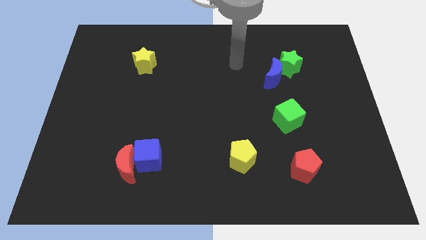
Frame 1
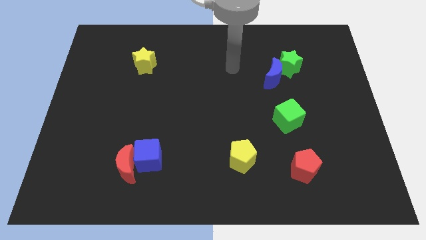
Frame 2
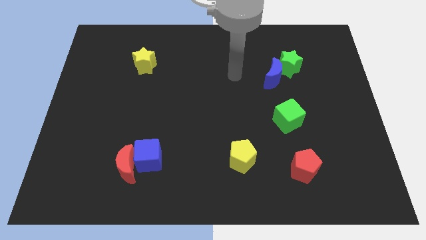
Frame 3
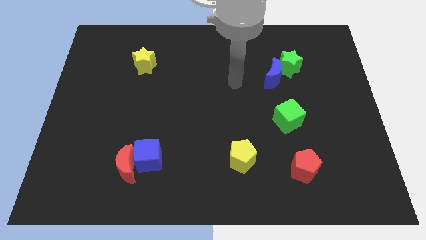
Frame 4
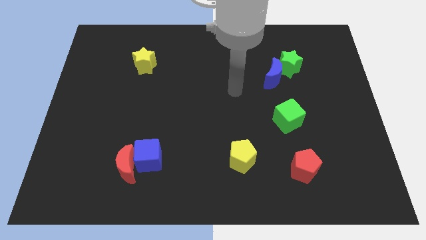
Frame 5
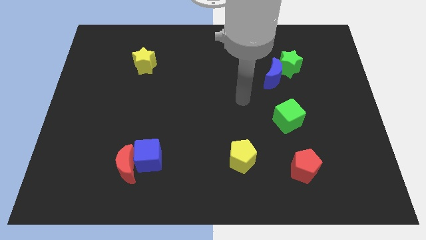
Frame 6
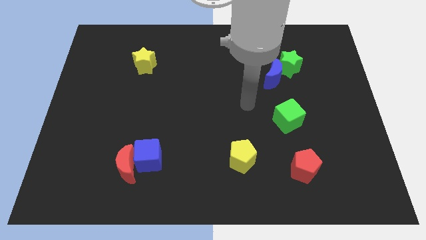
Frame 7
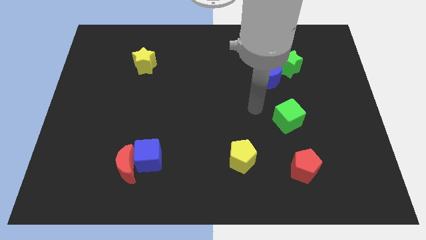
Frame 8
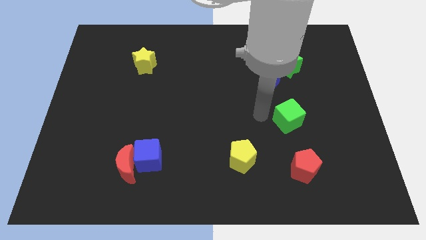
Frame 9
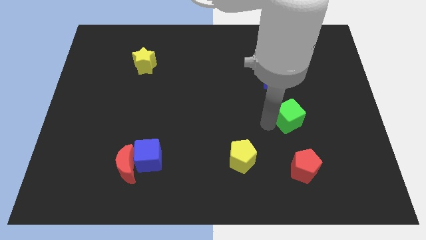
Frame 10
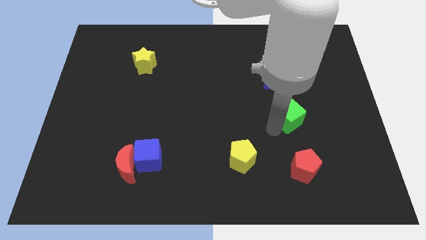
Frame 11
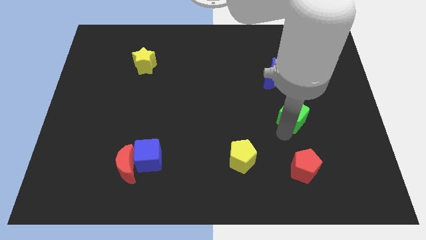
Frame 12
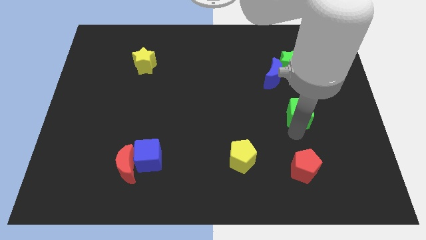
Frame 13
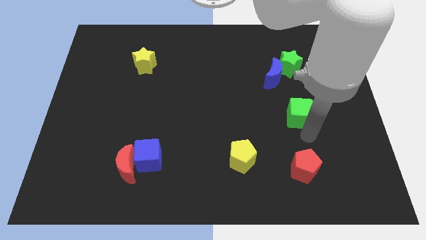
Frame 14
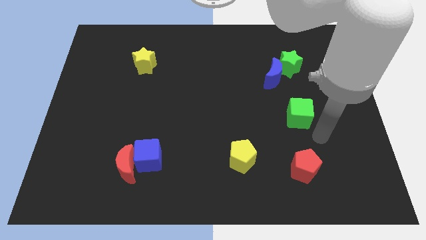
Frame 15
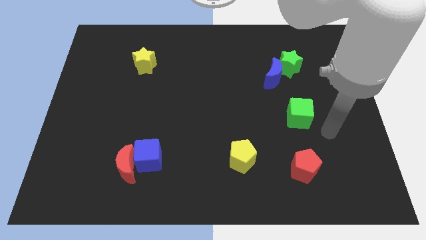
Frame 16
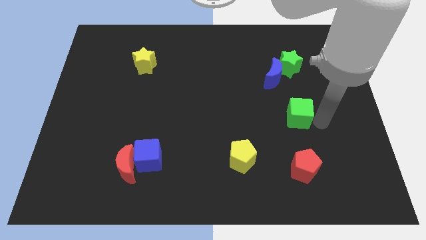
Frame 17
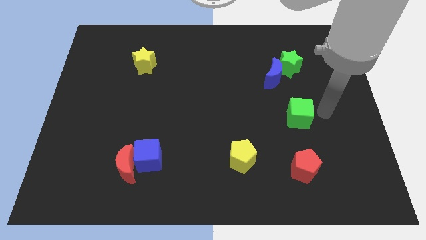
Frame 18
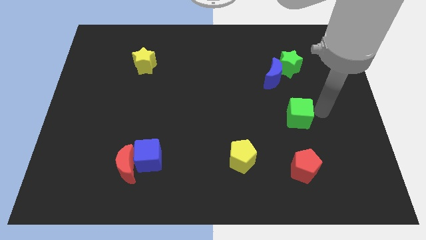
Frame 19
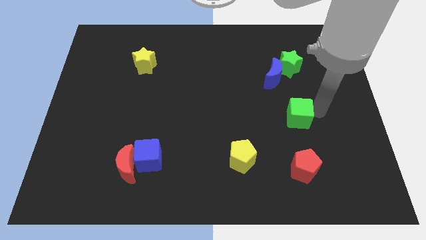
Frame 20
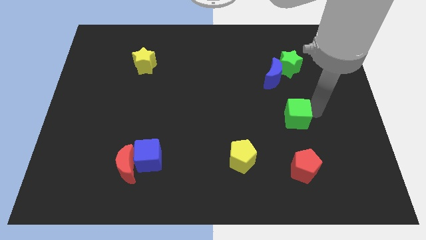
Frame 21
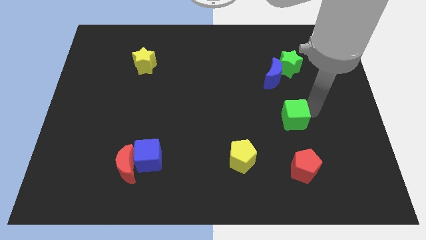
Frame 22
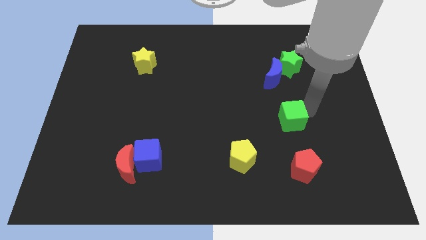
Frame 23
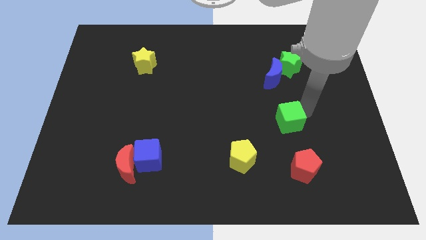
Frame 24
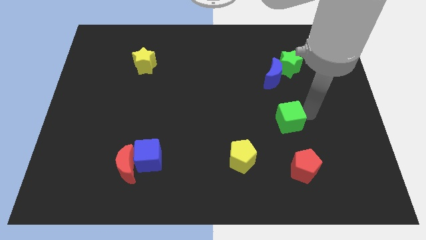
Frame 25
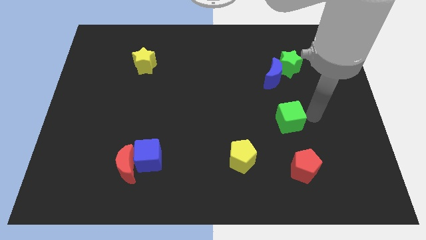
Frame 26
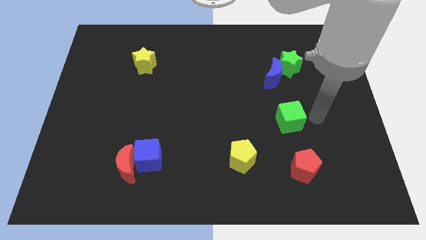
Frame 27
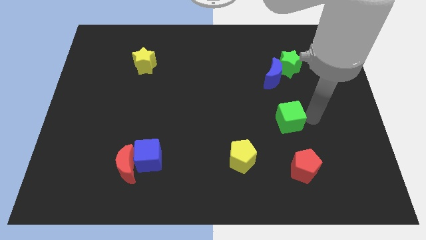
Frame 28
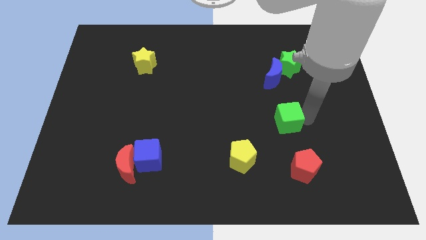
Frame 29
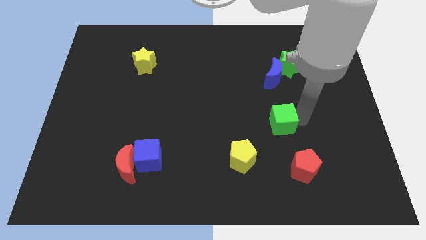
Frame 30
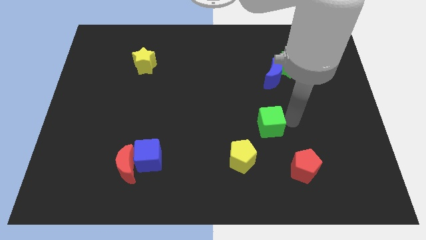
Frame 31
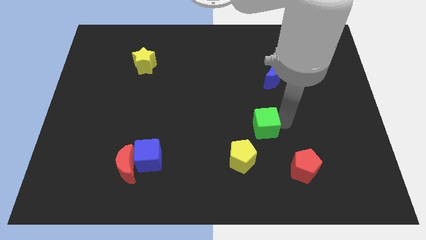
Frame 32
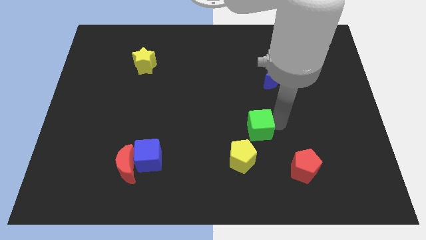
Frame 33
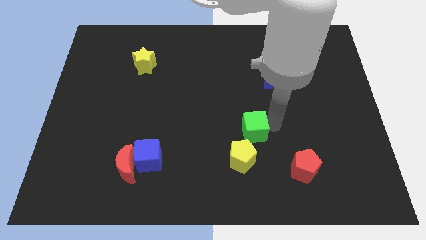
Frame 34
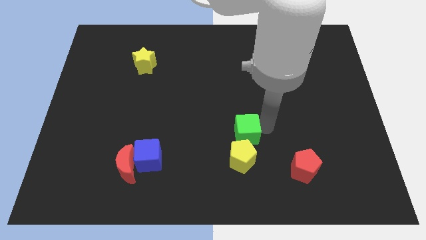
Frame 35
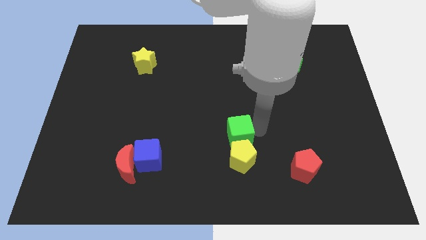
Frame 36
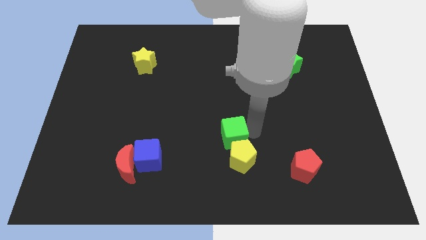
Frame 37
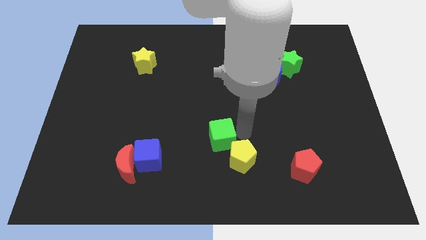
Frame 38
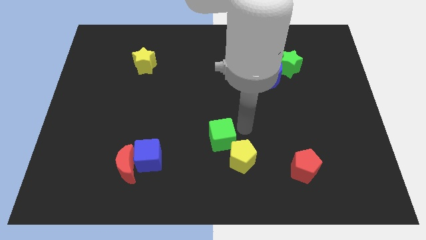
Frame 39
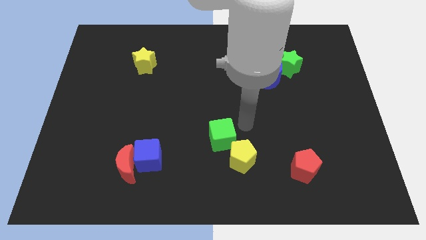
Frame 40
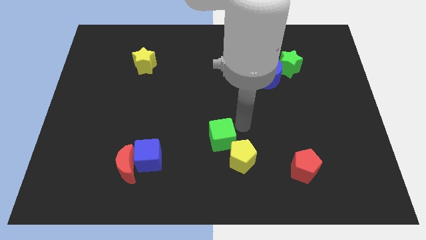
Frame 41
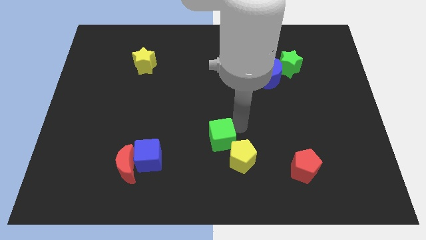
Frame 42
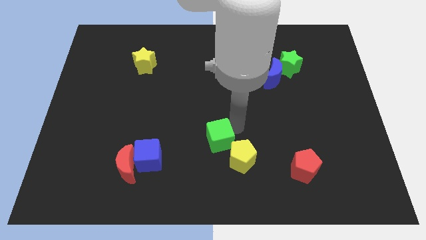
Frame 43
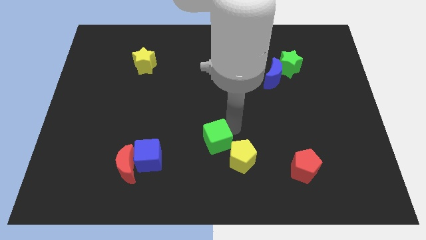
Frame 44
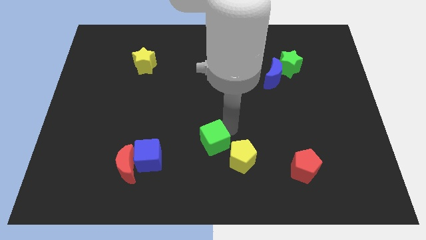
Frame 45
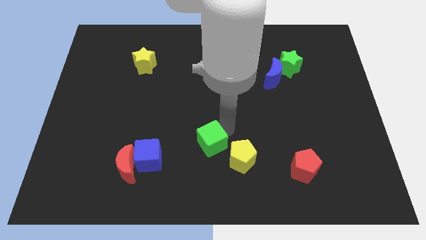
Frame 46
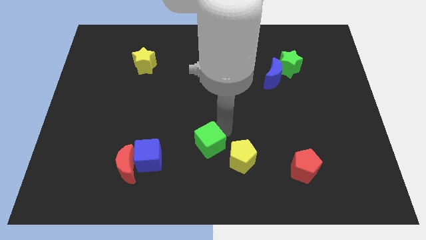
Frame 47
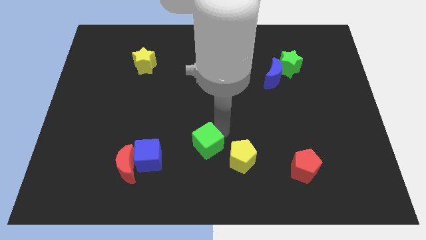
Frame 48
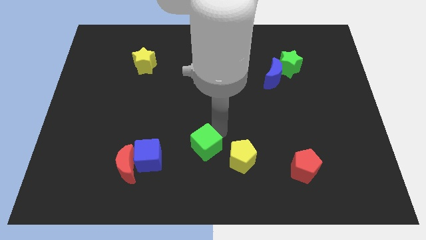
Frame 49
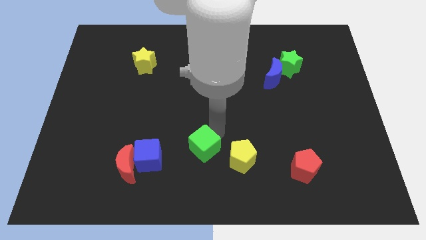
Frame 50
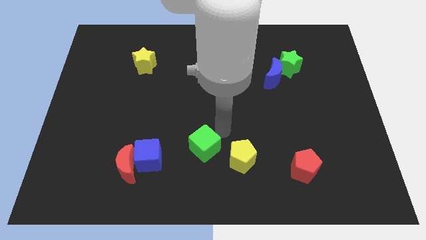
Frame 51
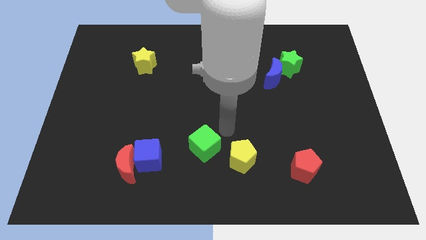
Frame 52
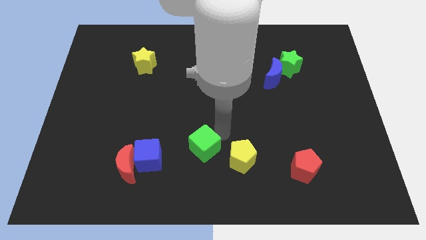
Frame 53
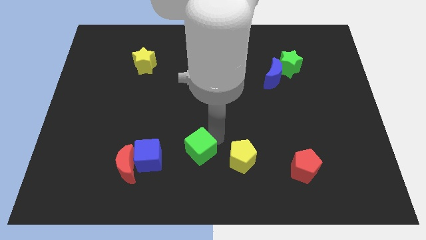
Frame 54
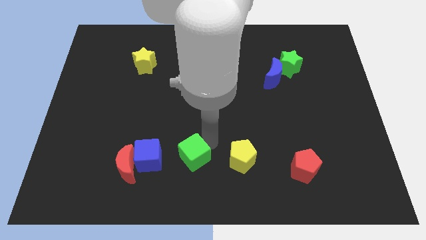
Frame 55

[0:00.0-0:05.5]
move the green cube to the right side of the red moon

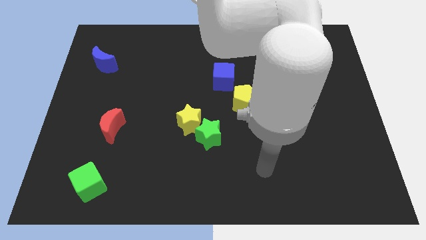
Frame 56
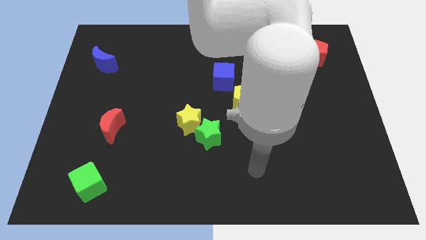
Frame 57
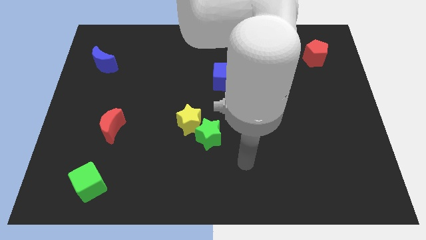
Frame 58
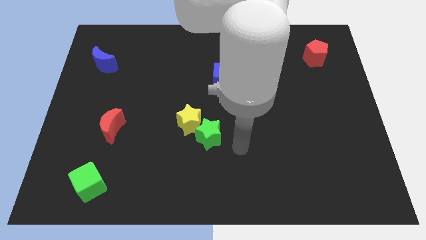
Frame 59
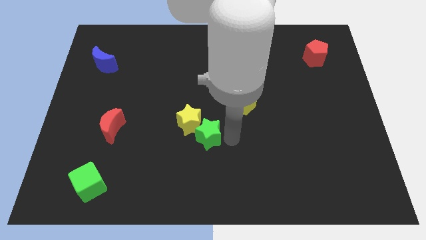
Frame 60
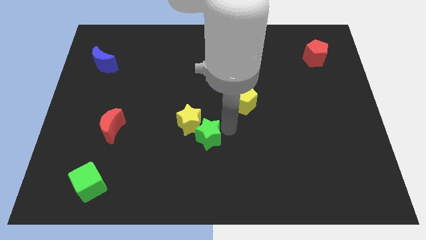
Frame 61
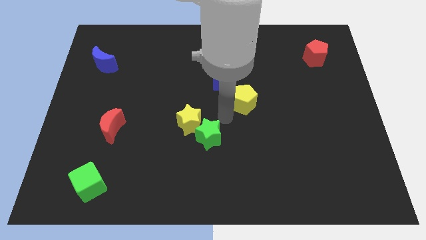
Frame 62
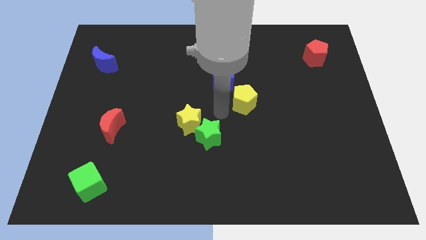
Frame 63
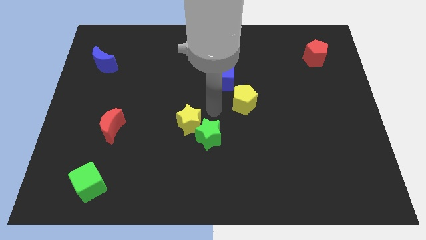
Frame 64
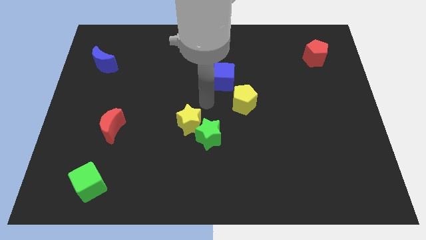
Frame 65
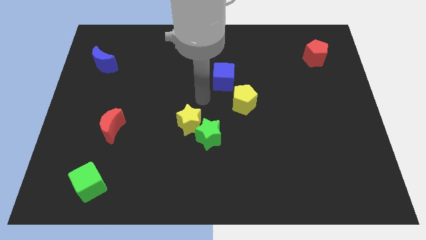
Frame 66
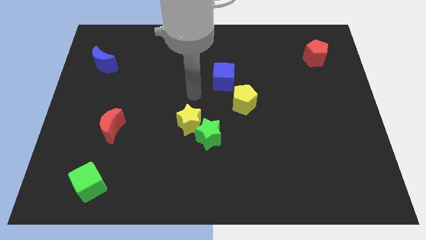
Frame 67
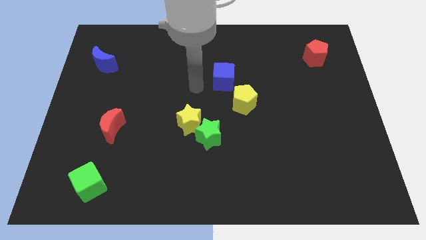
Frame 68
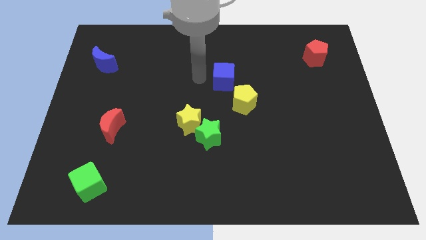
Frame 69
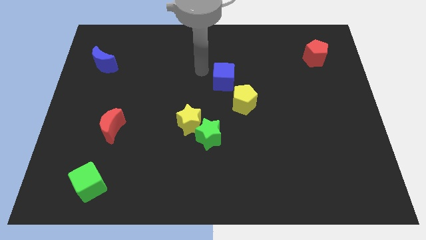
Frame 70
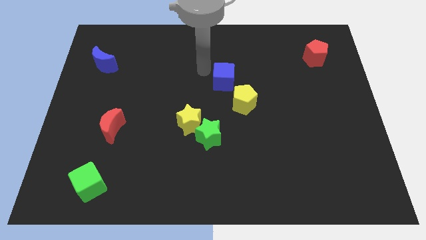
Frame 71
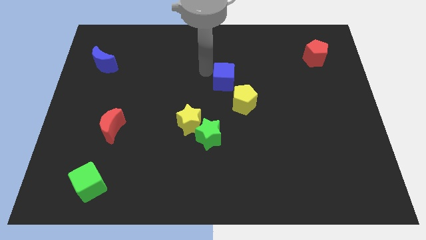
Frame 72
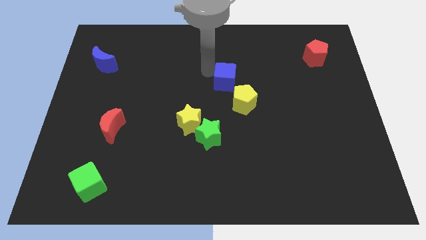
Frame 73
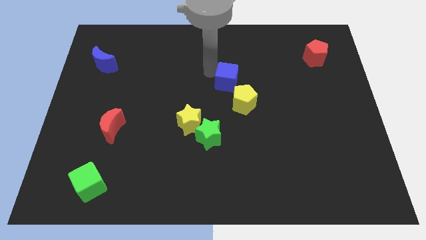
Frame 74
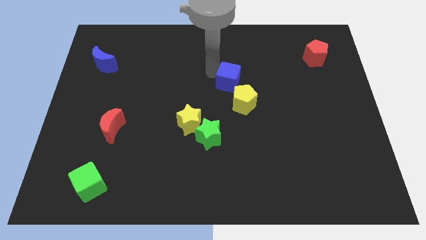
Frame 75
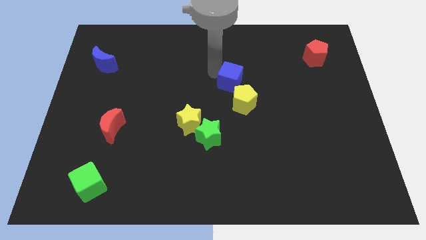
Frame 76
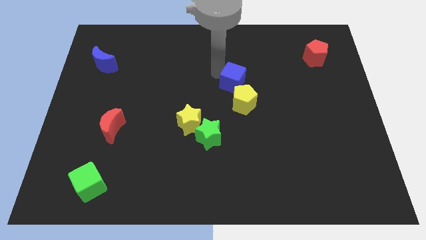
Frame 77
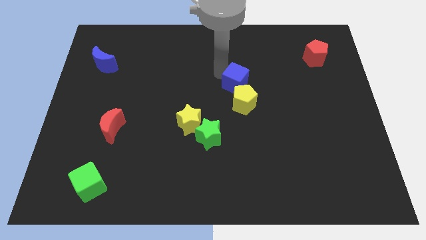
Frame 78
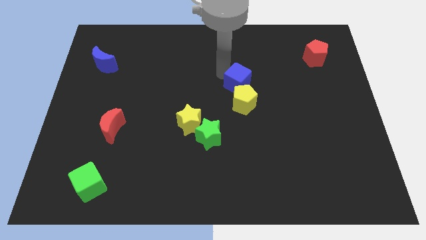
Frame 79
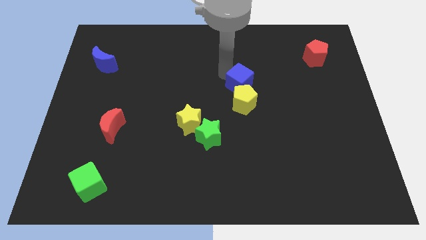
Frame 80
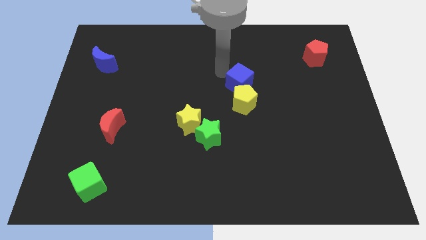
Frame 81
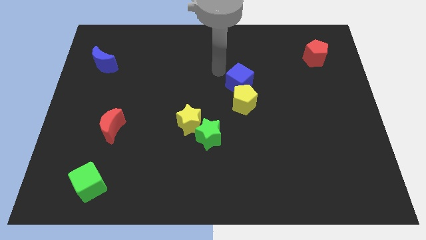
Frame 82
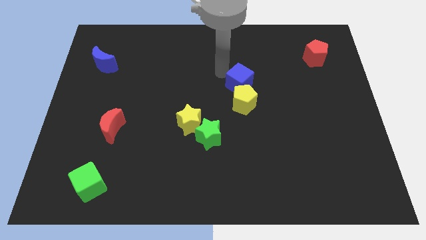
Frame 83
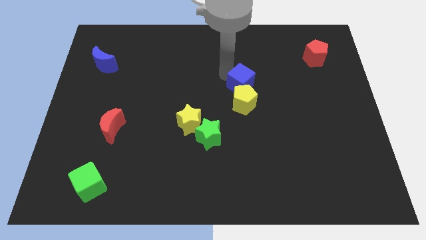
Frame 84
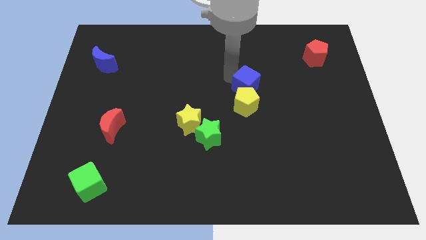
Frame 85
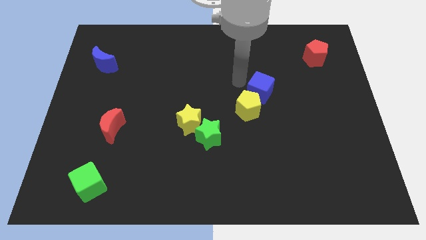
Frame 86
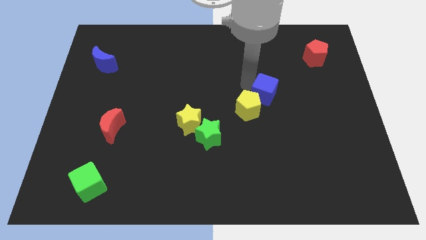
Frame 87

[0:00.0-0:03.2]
slide the blue cube just right of the yellow pentagon
